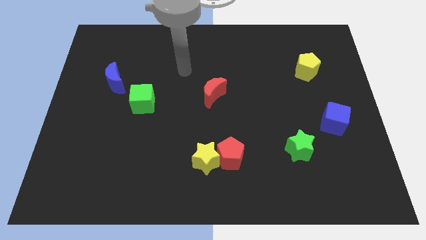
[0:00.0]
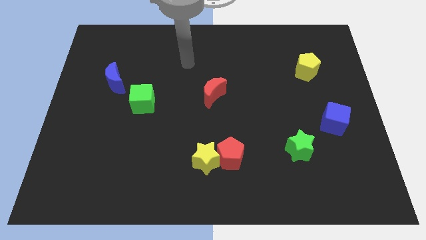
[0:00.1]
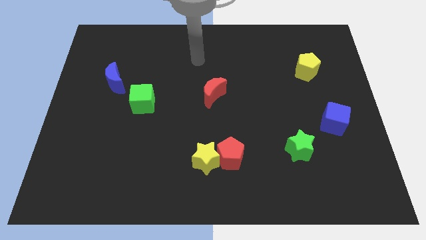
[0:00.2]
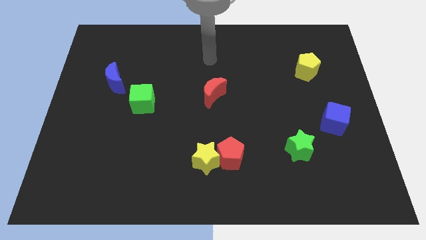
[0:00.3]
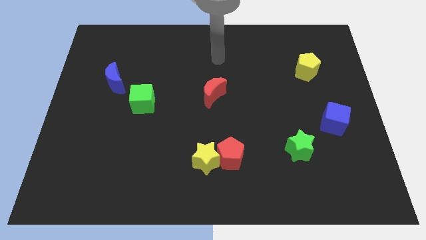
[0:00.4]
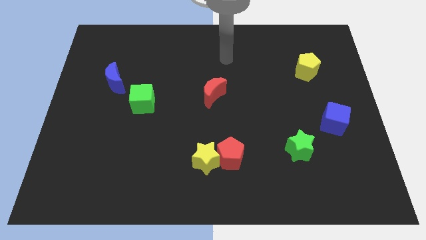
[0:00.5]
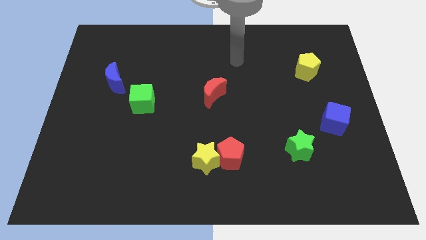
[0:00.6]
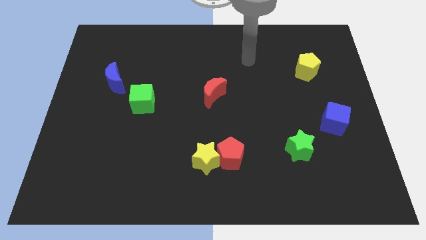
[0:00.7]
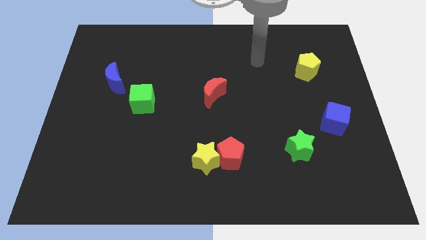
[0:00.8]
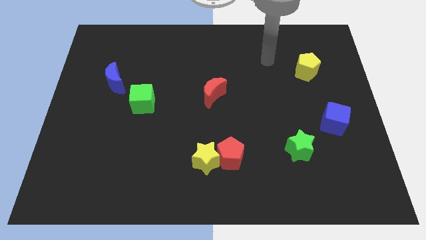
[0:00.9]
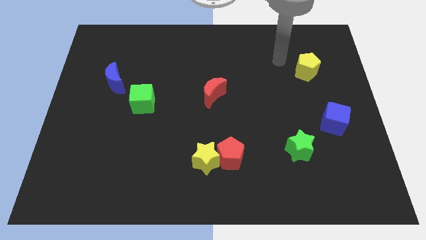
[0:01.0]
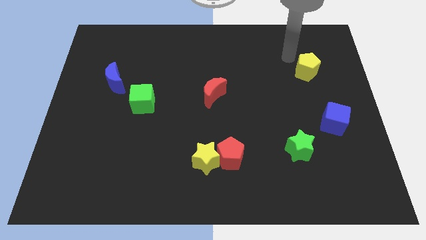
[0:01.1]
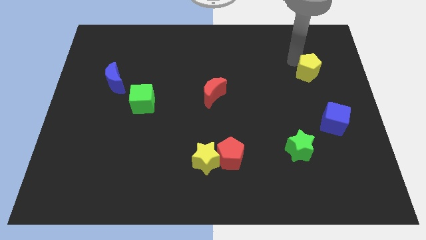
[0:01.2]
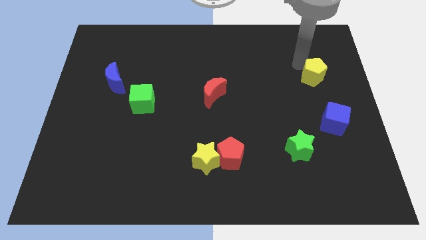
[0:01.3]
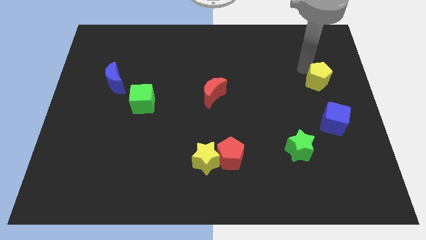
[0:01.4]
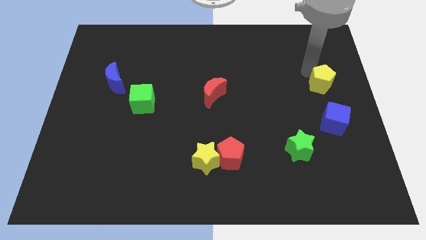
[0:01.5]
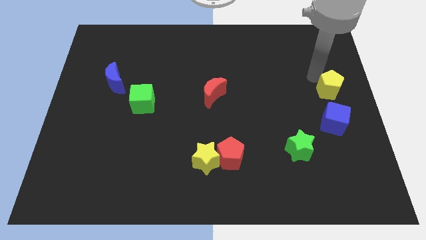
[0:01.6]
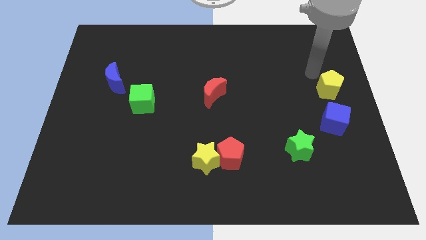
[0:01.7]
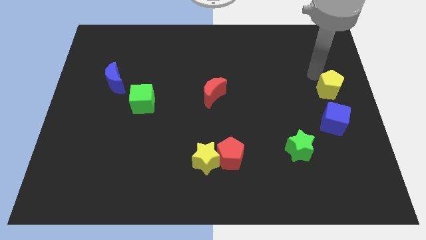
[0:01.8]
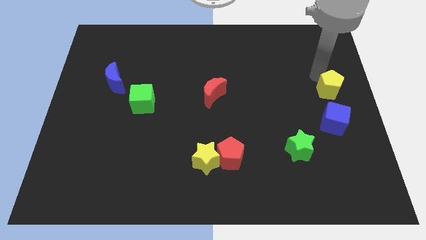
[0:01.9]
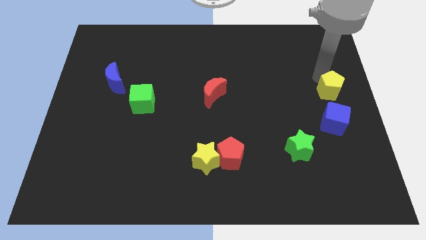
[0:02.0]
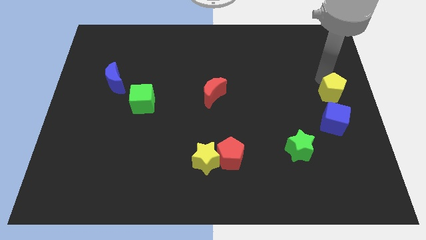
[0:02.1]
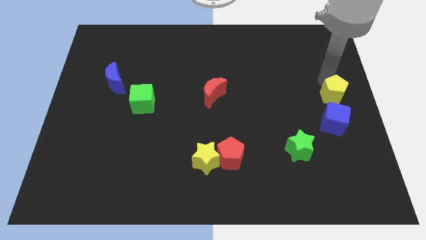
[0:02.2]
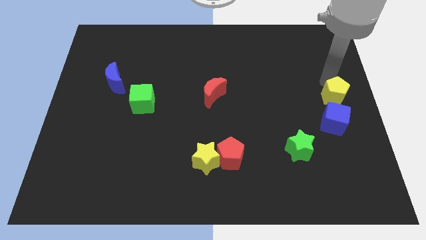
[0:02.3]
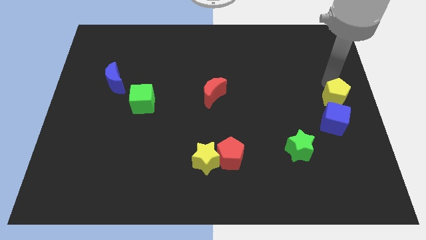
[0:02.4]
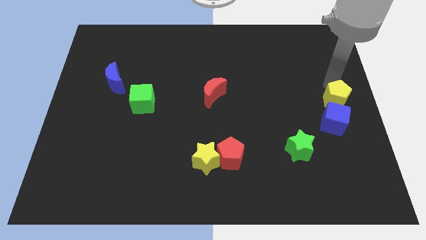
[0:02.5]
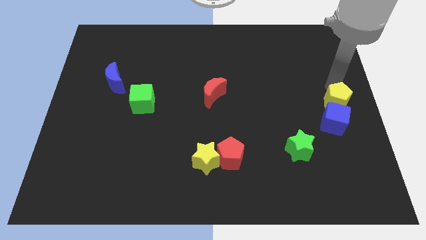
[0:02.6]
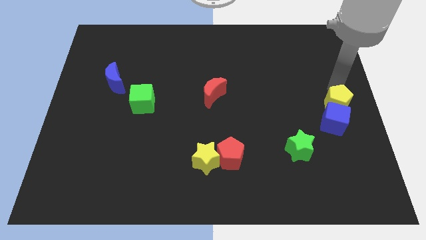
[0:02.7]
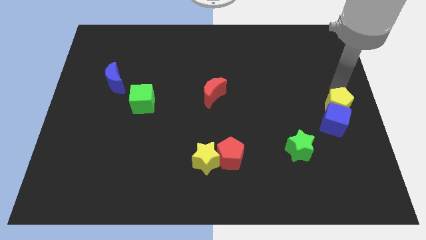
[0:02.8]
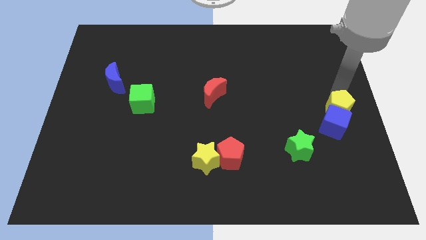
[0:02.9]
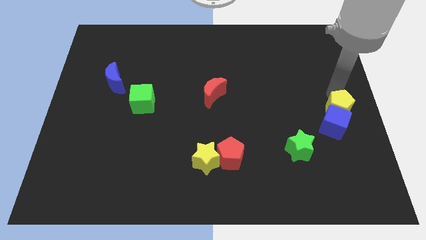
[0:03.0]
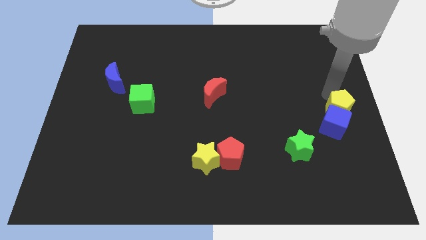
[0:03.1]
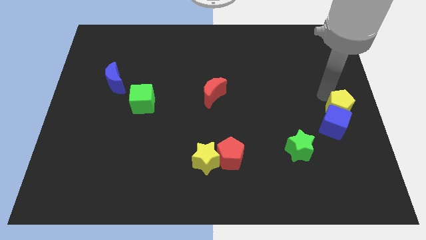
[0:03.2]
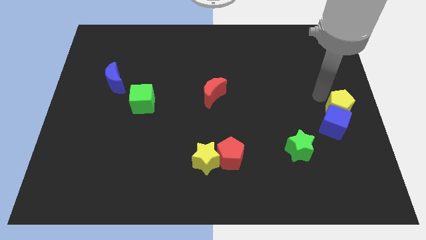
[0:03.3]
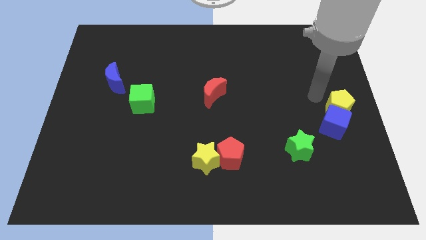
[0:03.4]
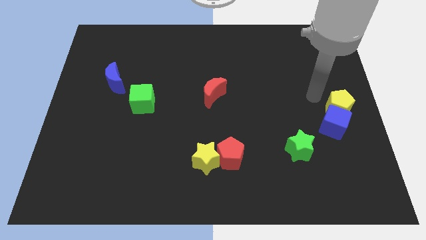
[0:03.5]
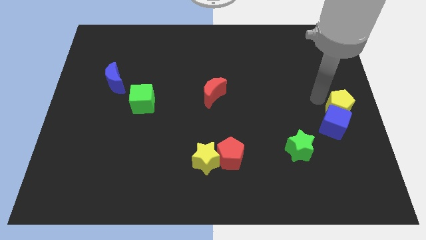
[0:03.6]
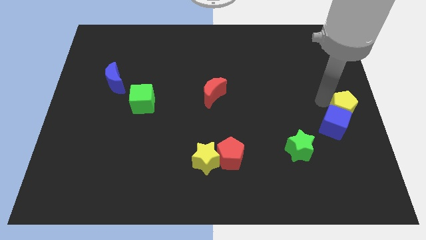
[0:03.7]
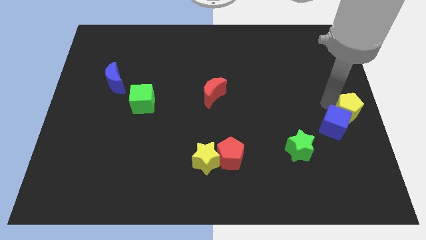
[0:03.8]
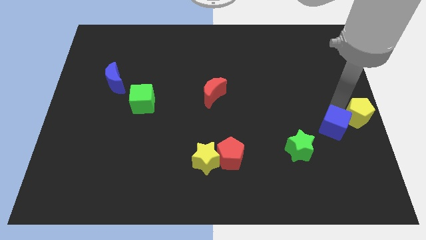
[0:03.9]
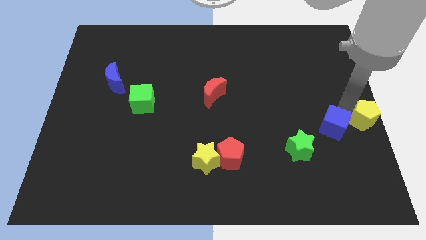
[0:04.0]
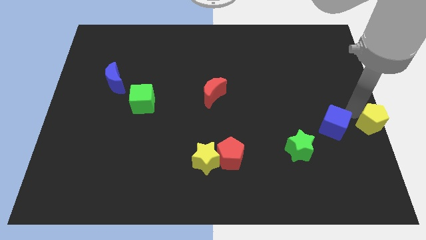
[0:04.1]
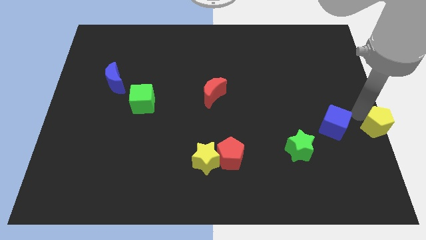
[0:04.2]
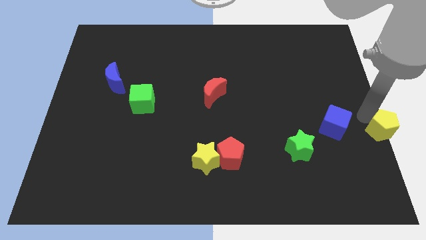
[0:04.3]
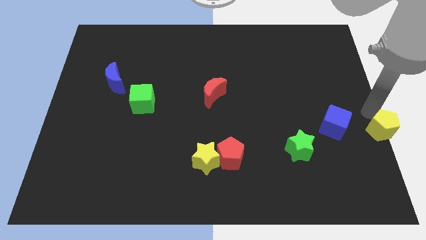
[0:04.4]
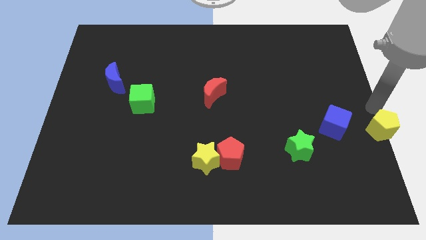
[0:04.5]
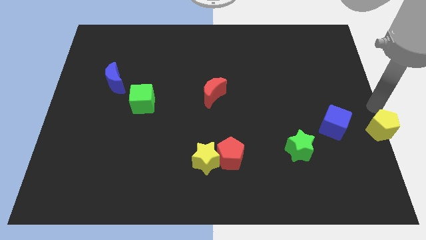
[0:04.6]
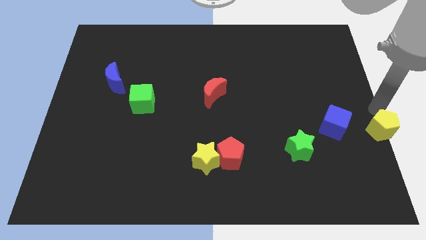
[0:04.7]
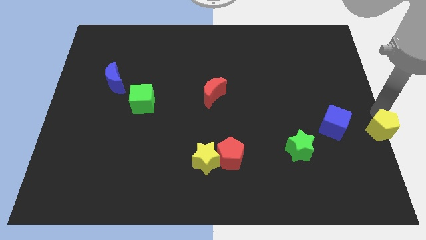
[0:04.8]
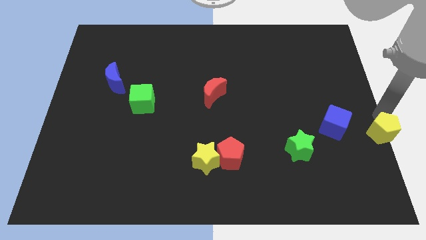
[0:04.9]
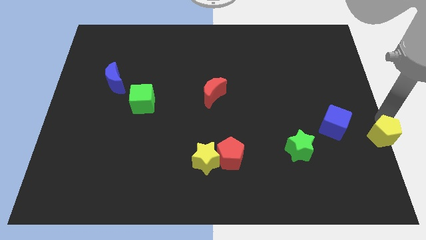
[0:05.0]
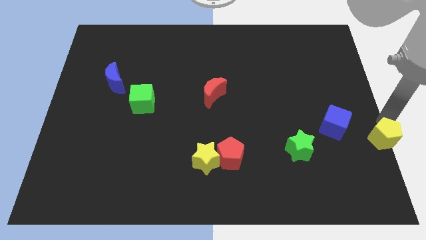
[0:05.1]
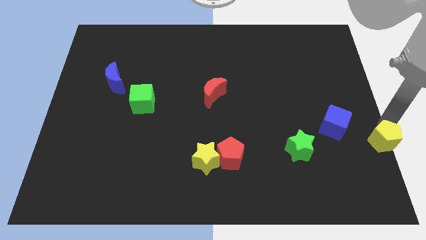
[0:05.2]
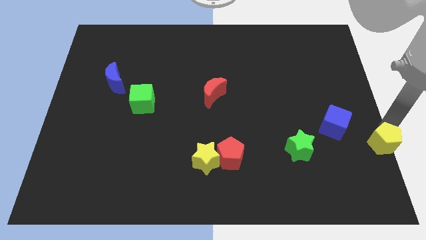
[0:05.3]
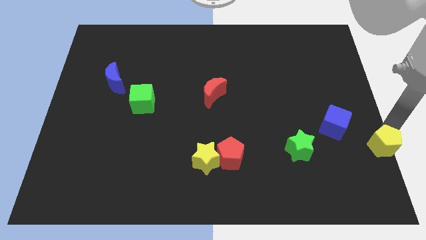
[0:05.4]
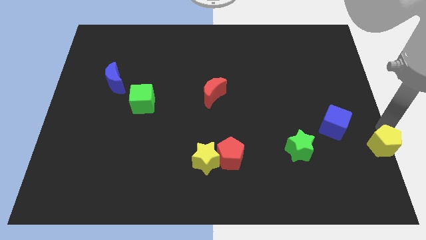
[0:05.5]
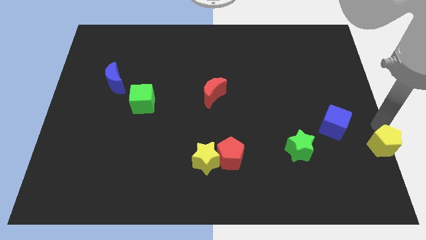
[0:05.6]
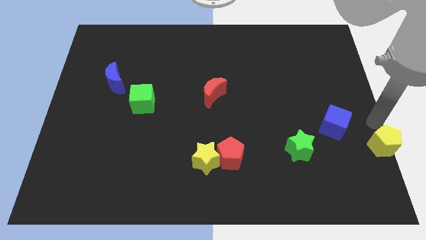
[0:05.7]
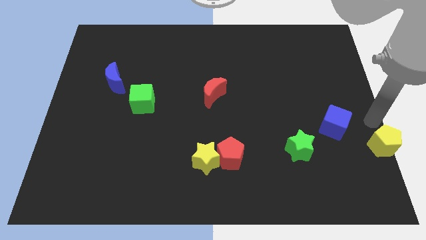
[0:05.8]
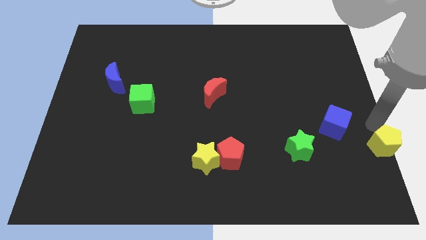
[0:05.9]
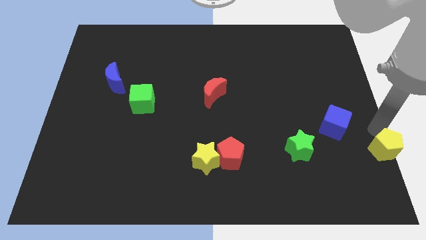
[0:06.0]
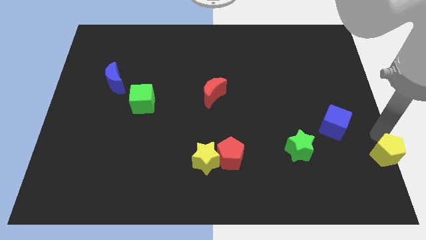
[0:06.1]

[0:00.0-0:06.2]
put the yellow pentagon to the lower right corner

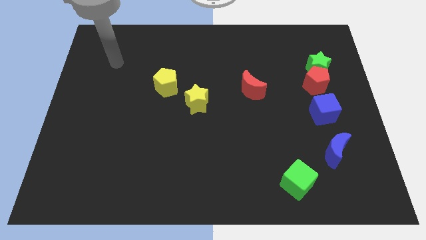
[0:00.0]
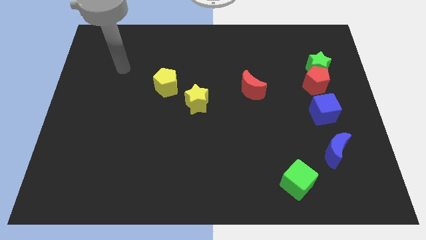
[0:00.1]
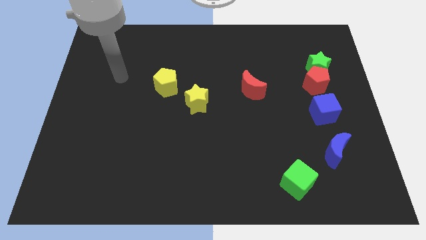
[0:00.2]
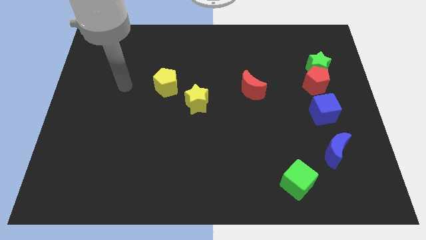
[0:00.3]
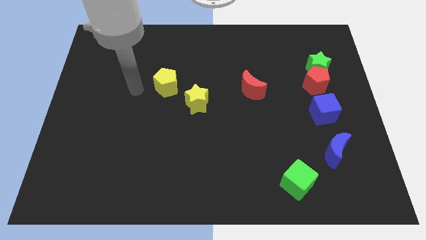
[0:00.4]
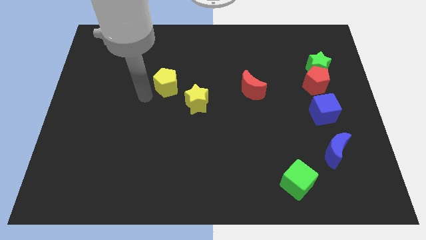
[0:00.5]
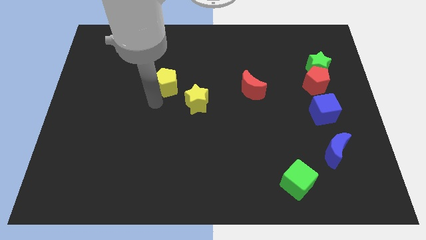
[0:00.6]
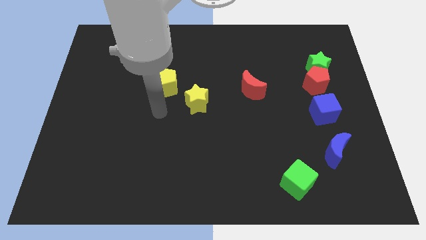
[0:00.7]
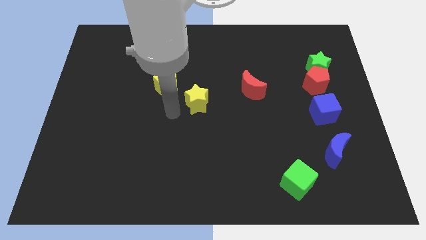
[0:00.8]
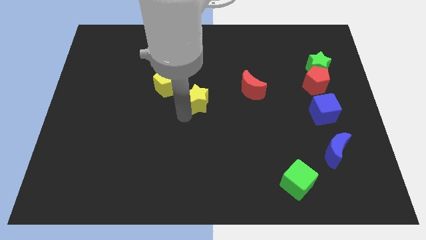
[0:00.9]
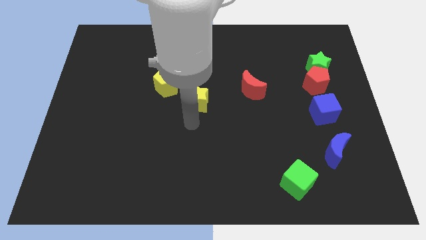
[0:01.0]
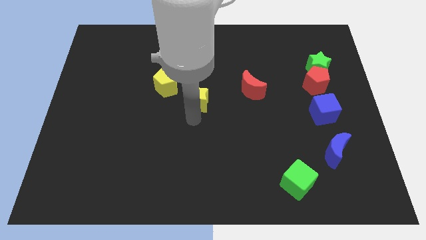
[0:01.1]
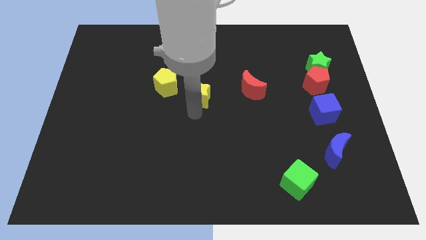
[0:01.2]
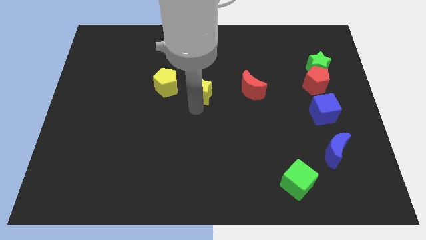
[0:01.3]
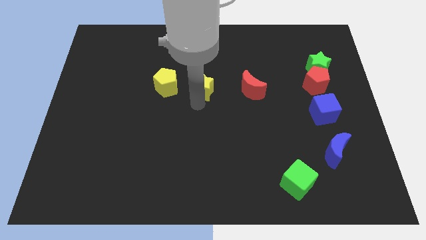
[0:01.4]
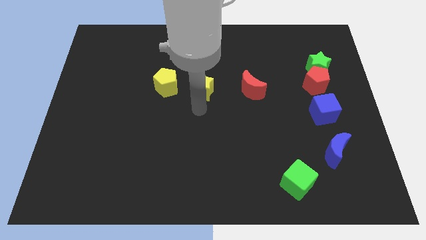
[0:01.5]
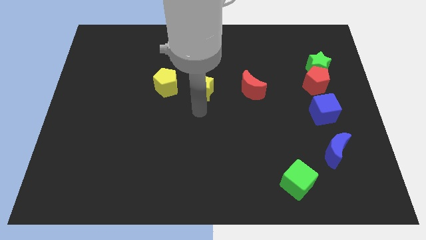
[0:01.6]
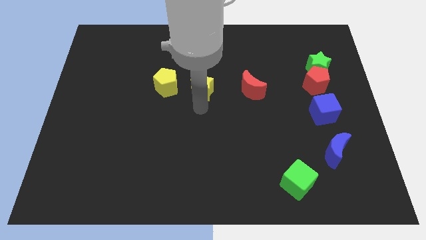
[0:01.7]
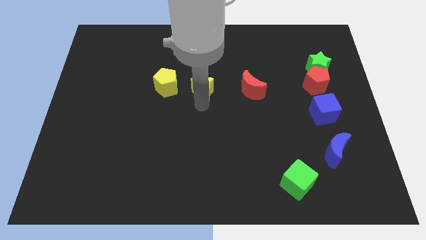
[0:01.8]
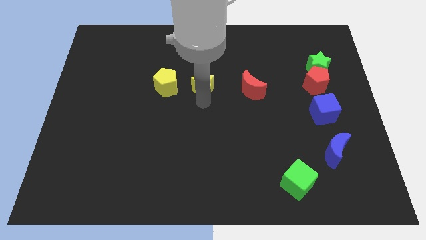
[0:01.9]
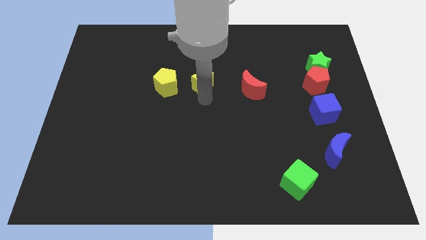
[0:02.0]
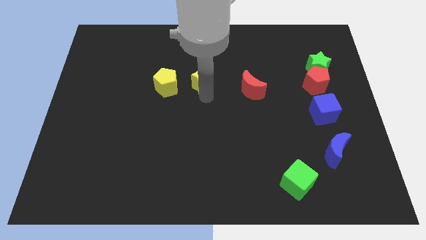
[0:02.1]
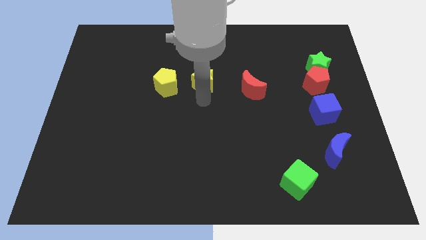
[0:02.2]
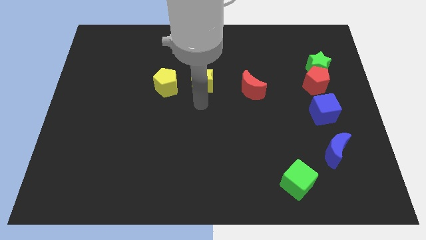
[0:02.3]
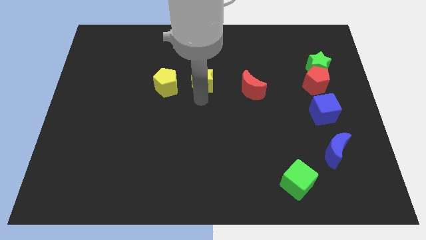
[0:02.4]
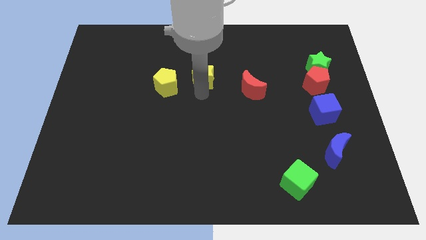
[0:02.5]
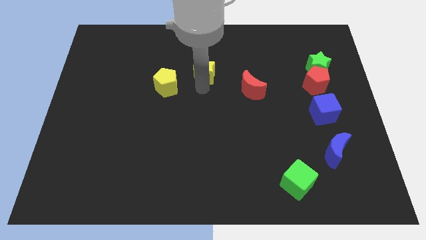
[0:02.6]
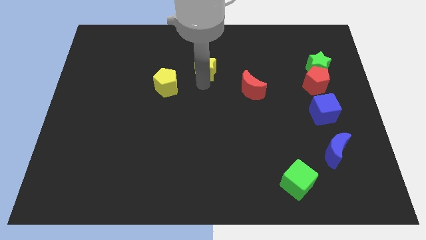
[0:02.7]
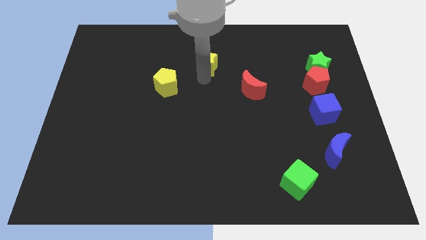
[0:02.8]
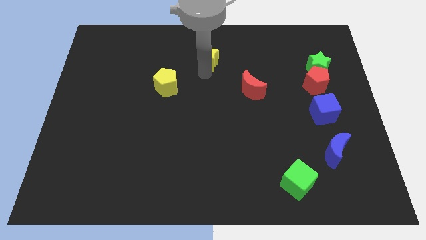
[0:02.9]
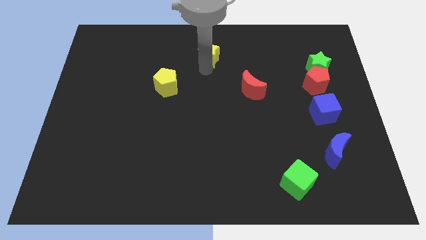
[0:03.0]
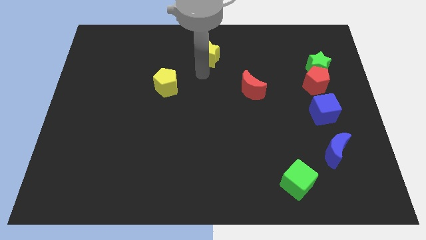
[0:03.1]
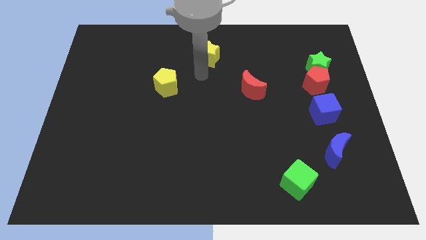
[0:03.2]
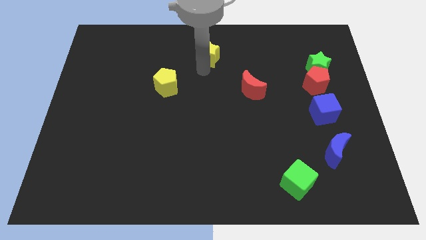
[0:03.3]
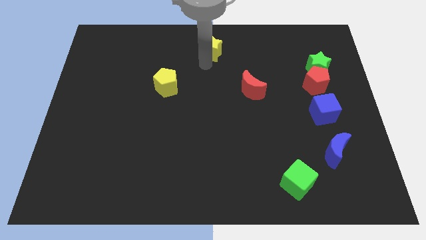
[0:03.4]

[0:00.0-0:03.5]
move the yellow star to the top
